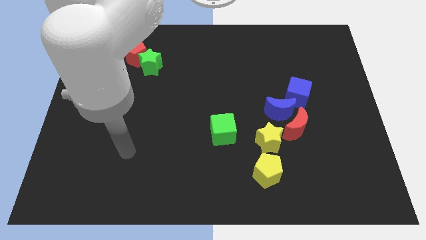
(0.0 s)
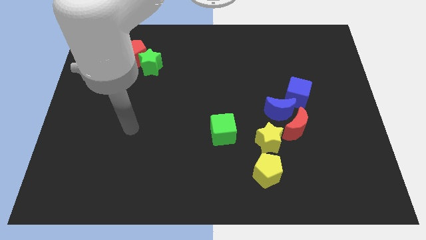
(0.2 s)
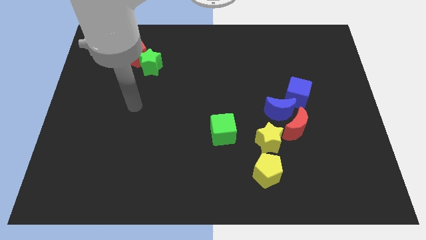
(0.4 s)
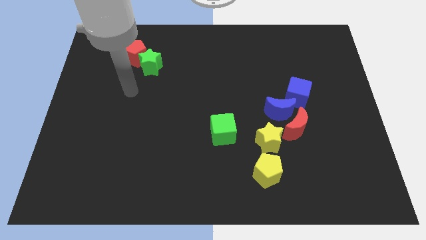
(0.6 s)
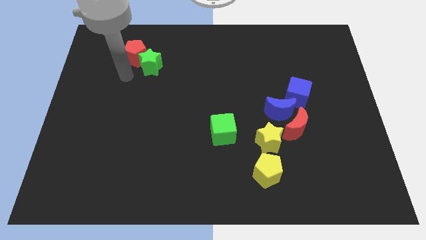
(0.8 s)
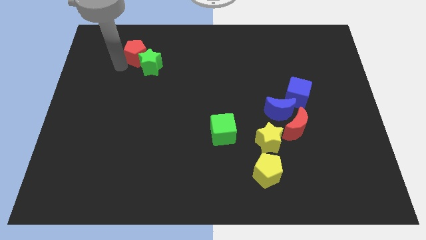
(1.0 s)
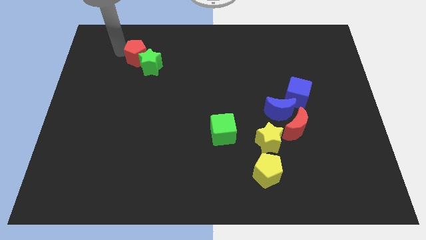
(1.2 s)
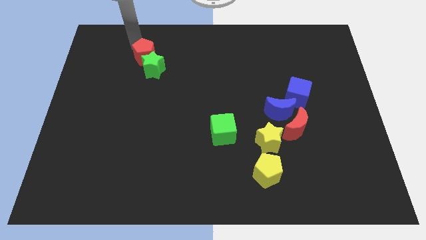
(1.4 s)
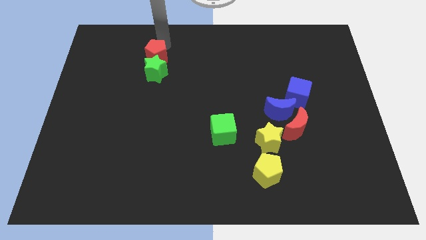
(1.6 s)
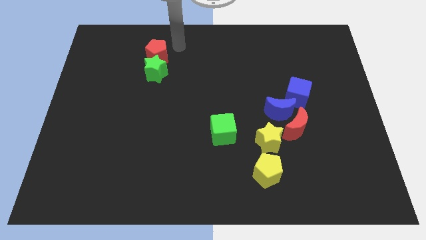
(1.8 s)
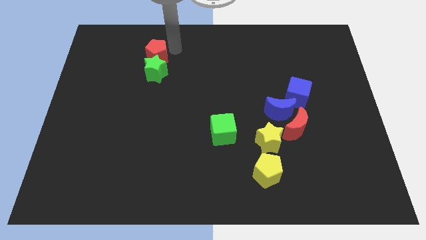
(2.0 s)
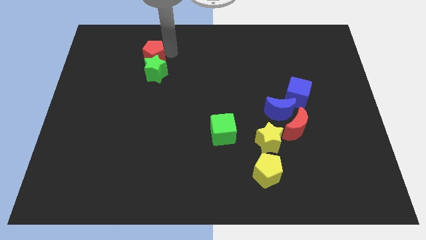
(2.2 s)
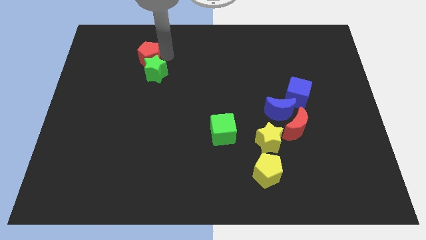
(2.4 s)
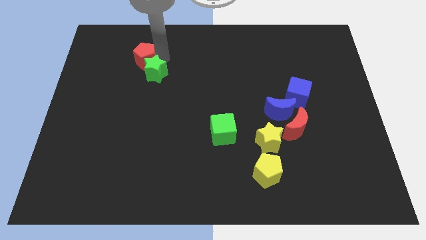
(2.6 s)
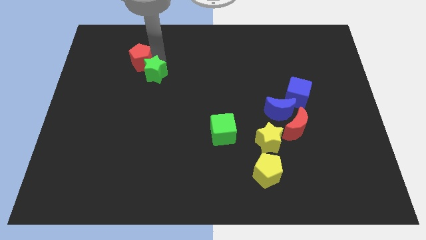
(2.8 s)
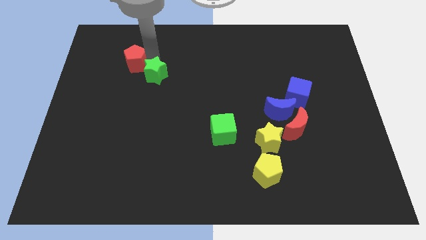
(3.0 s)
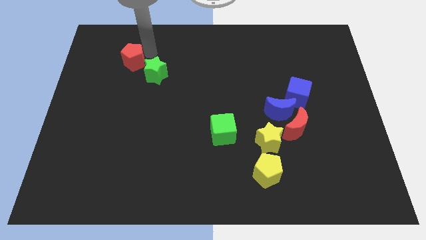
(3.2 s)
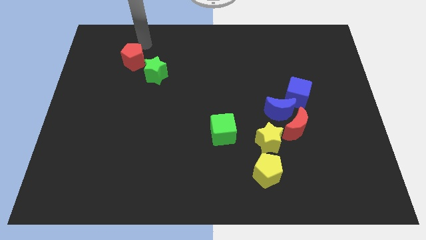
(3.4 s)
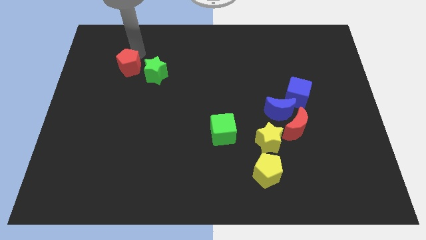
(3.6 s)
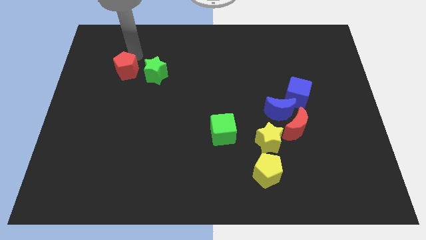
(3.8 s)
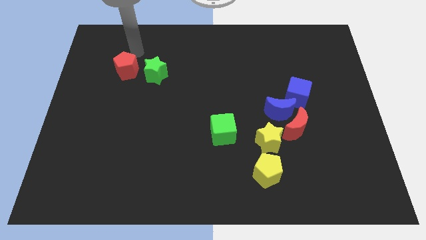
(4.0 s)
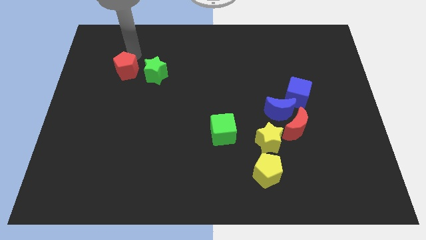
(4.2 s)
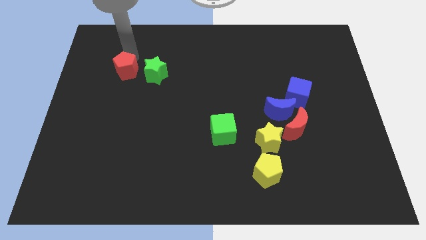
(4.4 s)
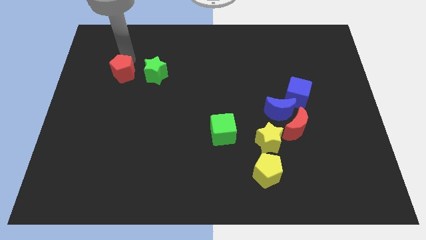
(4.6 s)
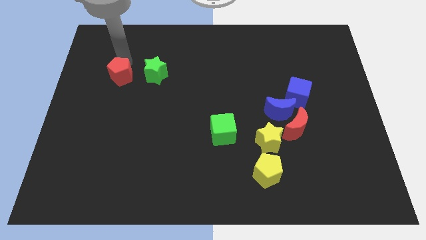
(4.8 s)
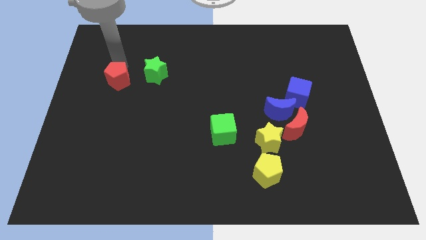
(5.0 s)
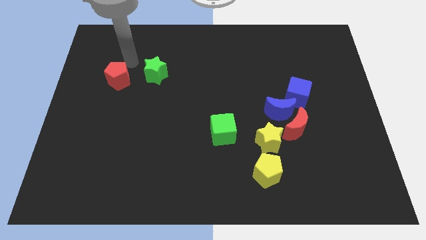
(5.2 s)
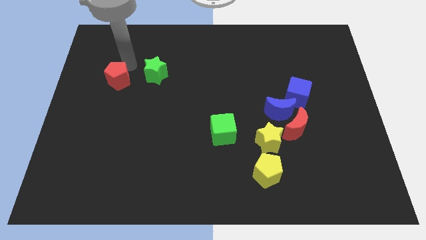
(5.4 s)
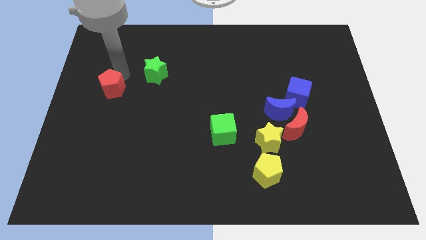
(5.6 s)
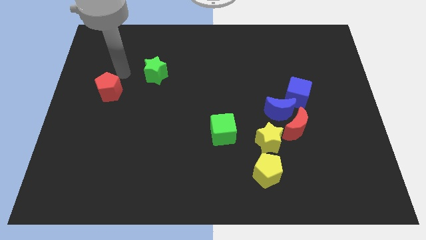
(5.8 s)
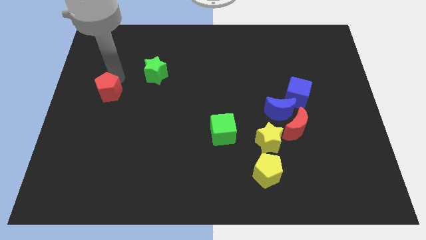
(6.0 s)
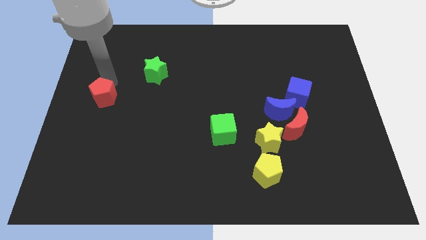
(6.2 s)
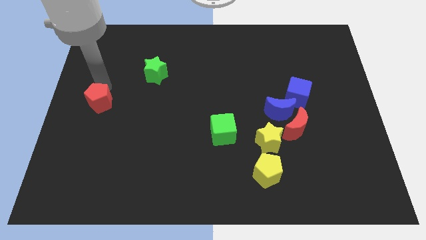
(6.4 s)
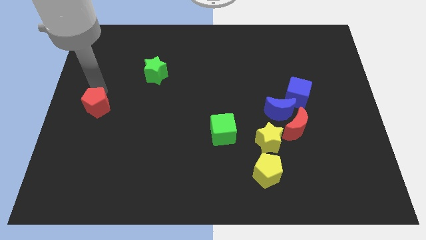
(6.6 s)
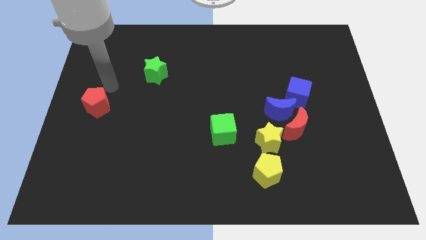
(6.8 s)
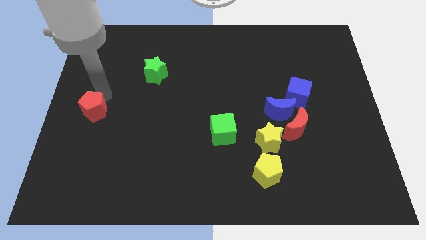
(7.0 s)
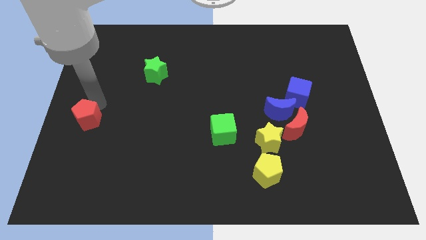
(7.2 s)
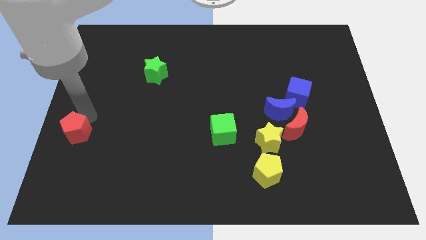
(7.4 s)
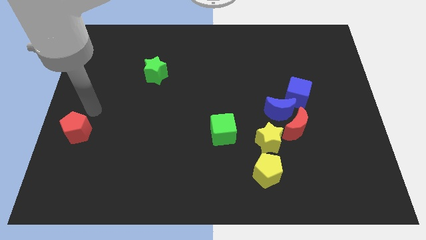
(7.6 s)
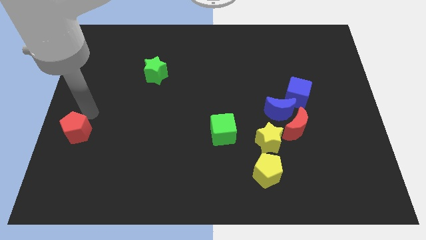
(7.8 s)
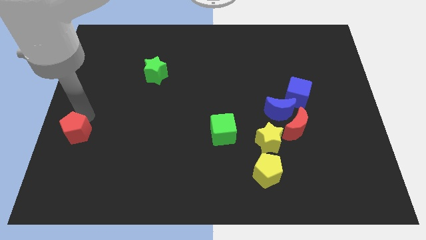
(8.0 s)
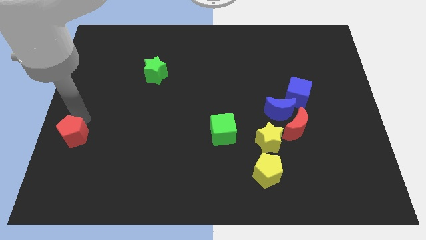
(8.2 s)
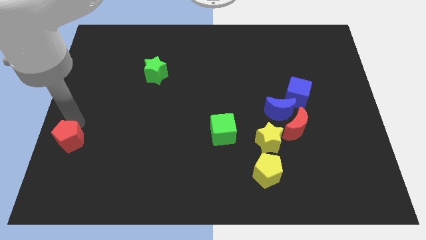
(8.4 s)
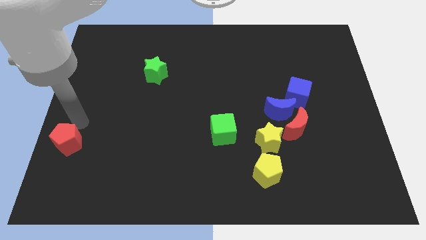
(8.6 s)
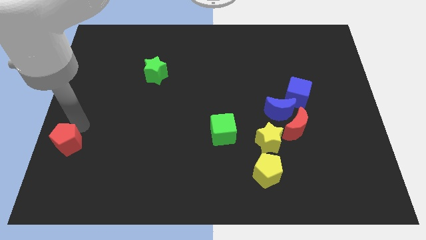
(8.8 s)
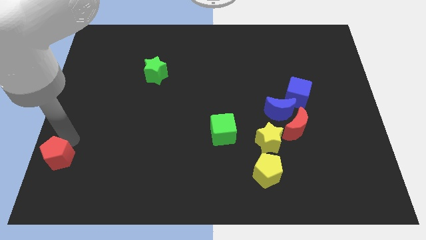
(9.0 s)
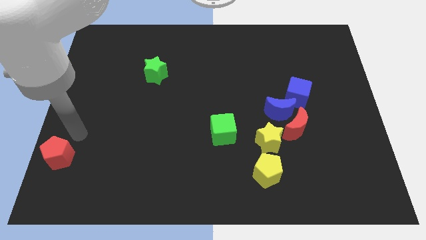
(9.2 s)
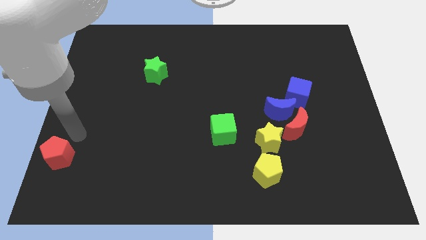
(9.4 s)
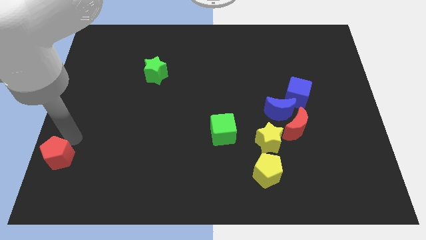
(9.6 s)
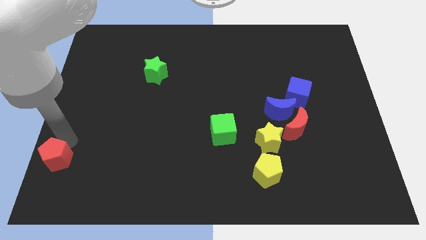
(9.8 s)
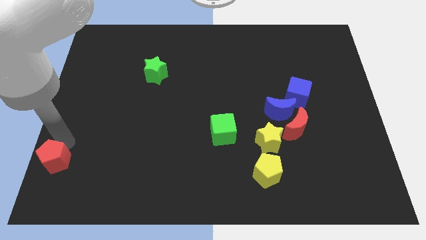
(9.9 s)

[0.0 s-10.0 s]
move the red pentagon to the bottom left corner

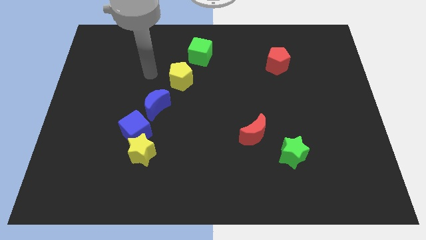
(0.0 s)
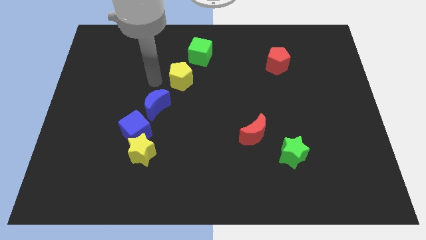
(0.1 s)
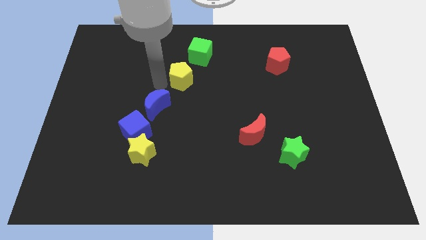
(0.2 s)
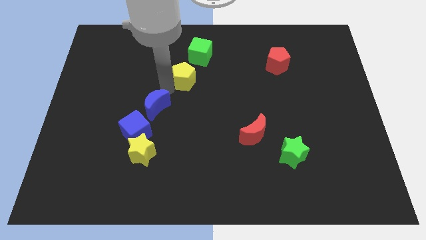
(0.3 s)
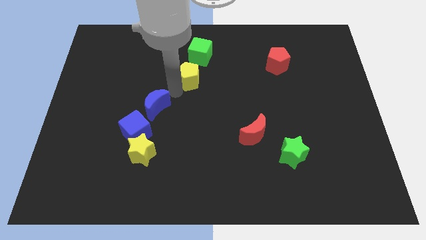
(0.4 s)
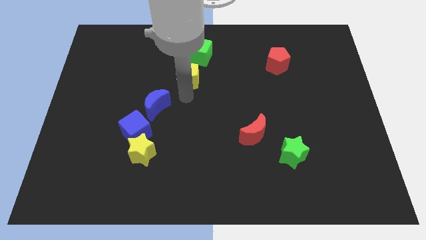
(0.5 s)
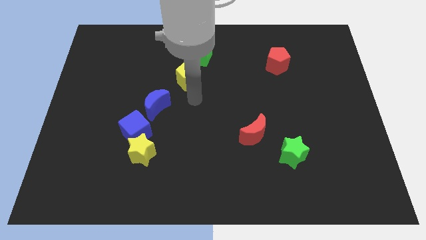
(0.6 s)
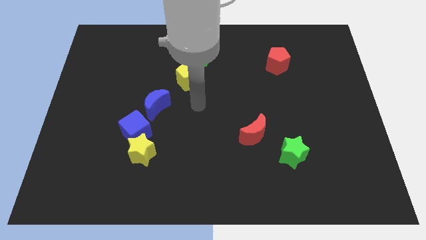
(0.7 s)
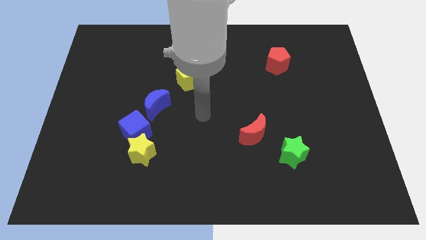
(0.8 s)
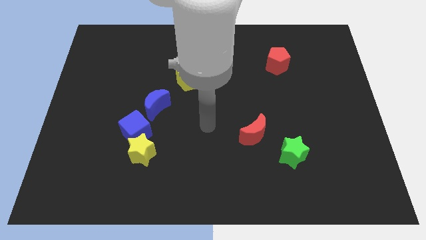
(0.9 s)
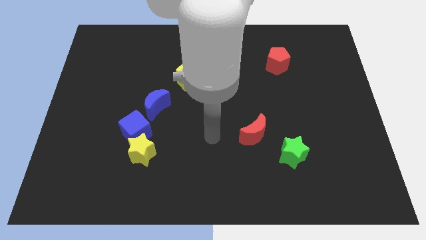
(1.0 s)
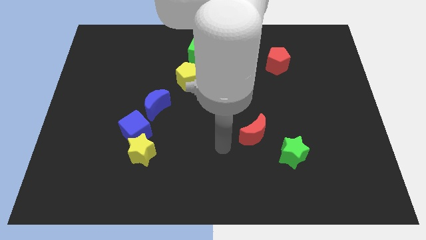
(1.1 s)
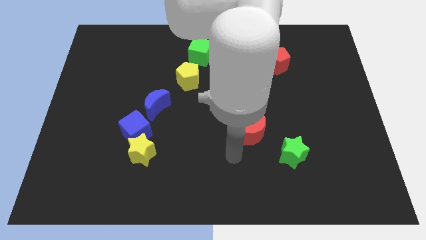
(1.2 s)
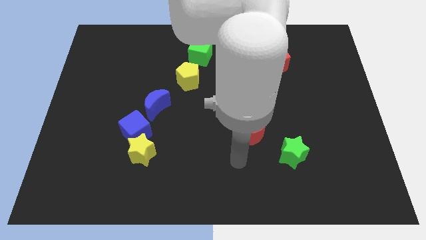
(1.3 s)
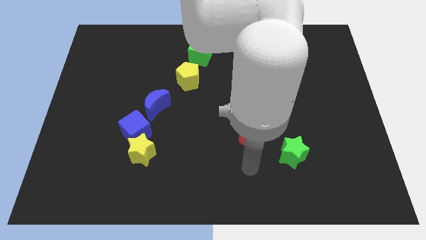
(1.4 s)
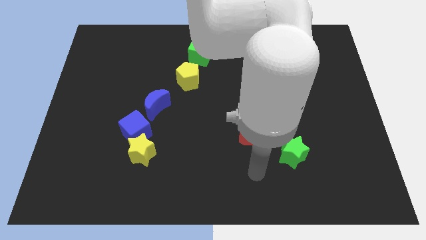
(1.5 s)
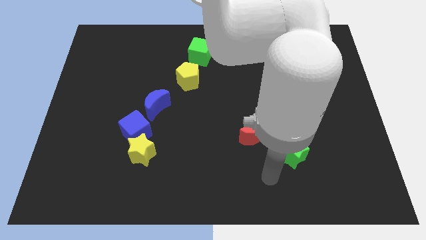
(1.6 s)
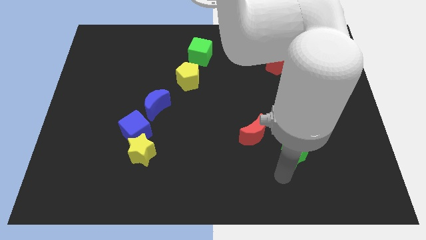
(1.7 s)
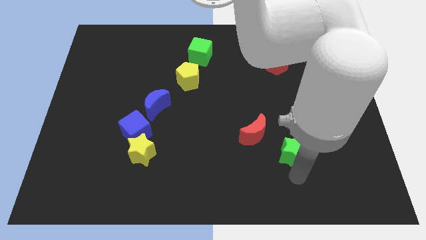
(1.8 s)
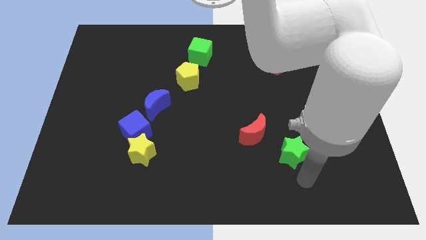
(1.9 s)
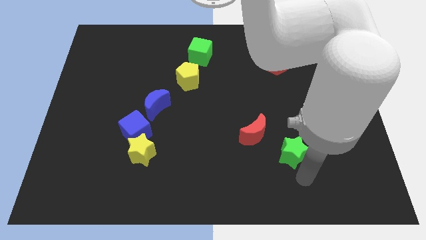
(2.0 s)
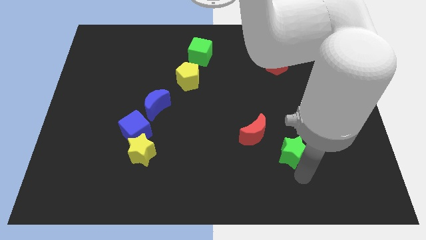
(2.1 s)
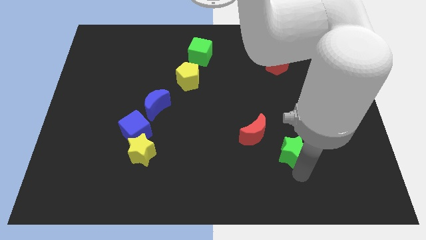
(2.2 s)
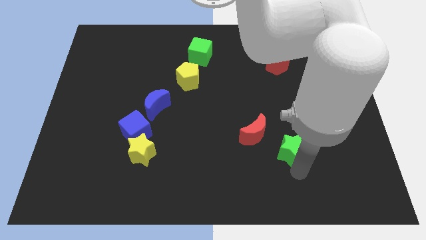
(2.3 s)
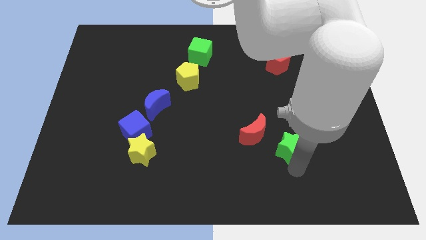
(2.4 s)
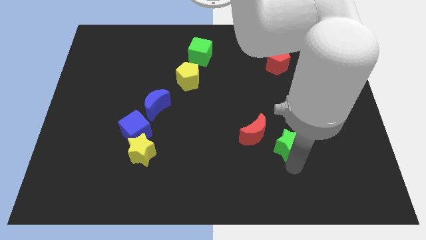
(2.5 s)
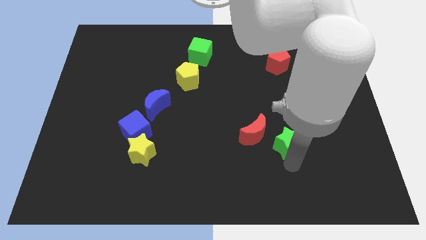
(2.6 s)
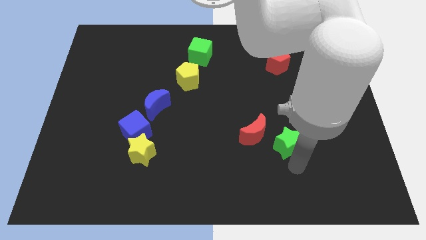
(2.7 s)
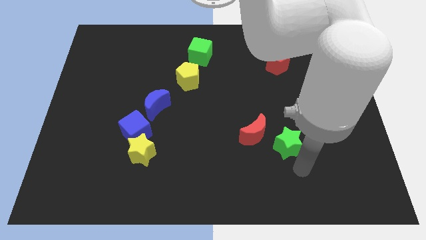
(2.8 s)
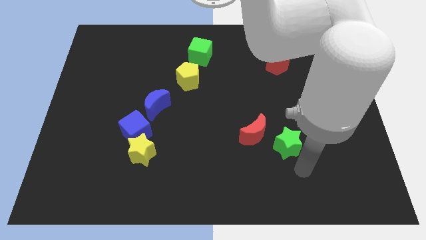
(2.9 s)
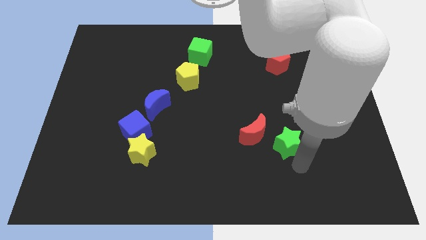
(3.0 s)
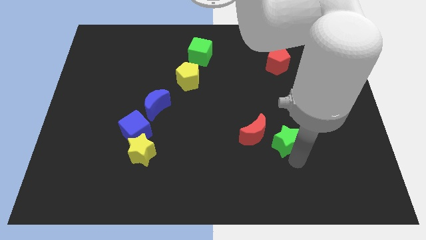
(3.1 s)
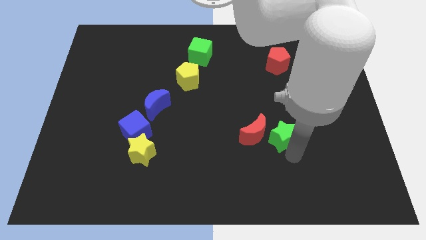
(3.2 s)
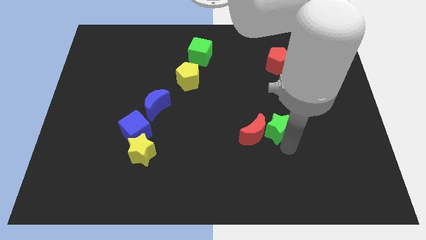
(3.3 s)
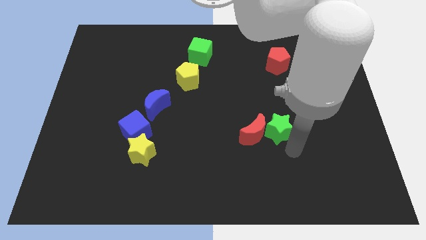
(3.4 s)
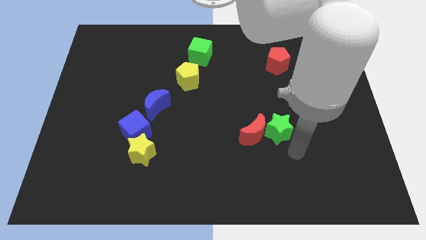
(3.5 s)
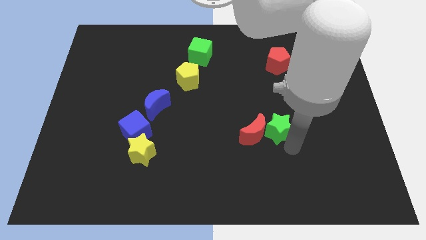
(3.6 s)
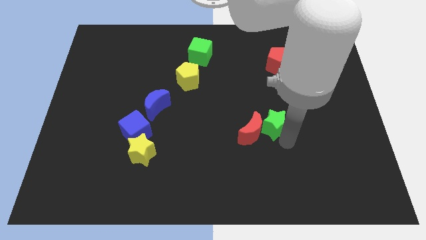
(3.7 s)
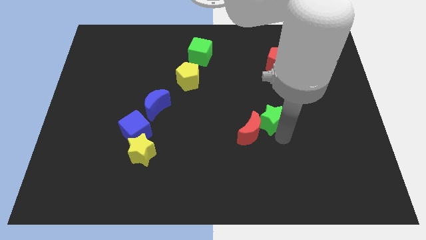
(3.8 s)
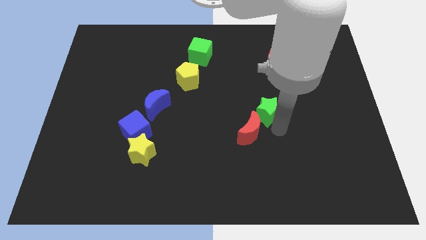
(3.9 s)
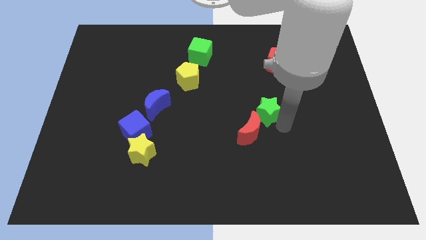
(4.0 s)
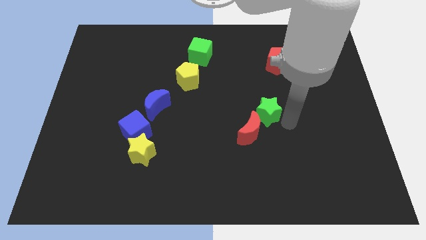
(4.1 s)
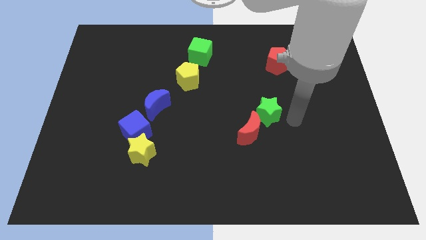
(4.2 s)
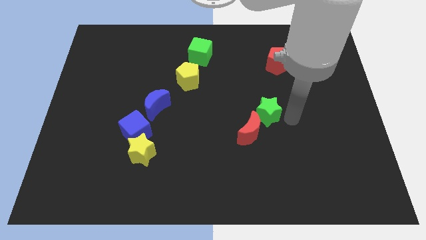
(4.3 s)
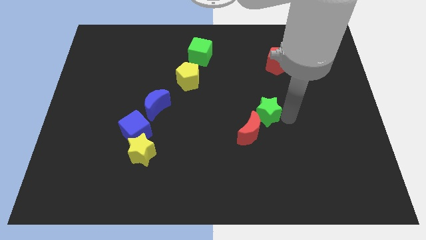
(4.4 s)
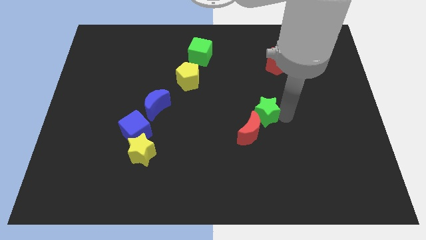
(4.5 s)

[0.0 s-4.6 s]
push the green star to the middle of the board
